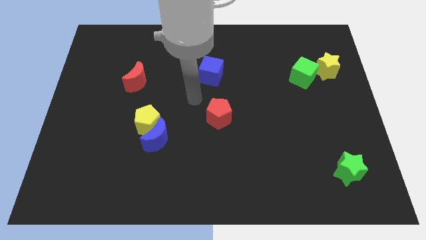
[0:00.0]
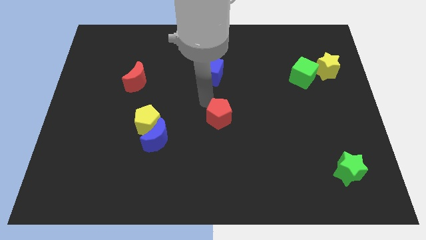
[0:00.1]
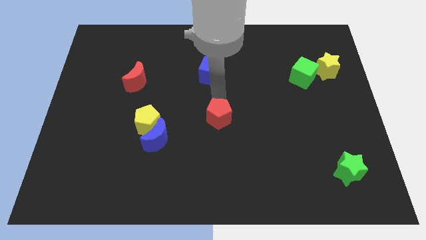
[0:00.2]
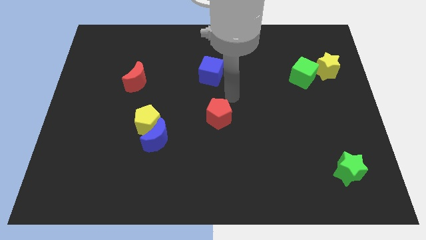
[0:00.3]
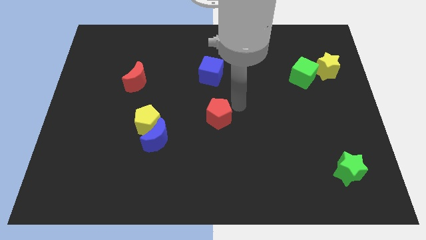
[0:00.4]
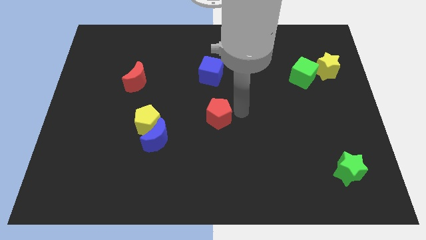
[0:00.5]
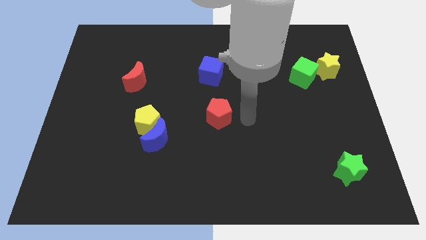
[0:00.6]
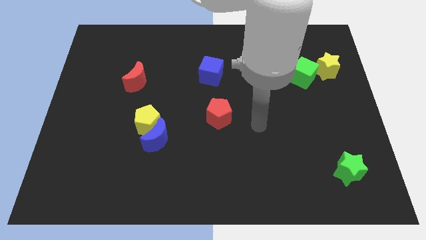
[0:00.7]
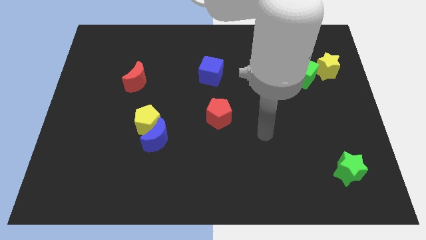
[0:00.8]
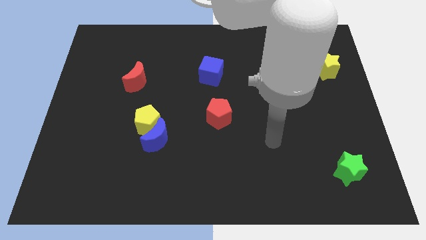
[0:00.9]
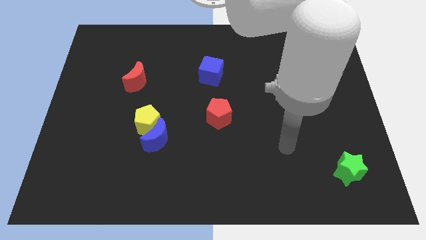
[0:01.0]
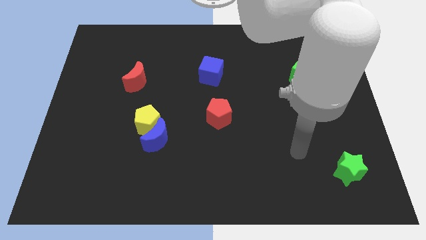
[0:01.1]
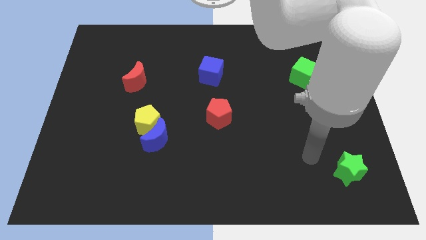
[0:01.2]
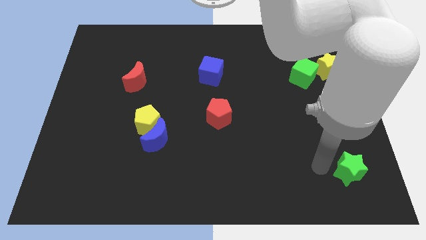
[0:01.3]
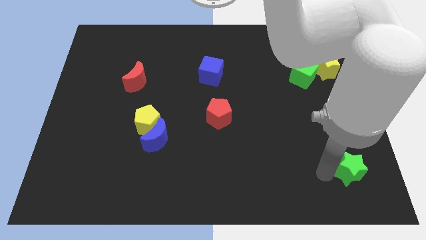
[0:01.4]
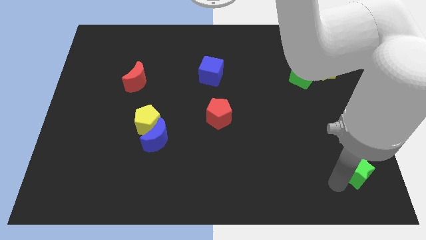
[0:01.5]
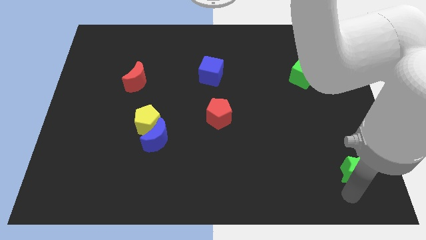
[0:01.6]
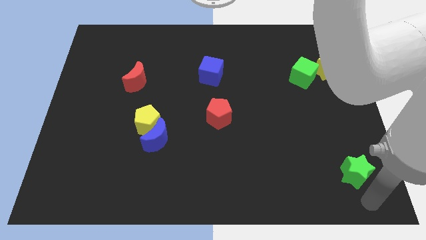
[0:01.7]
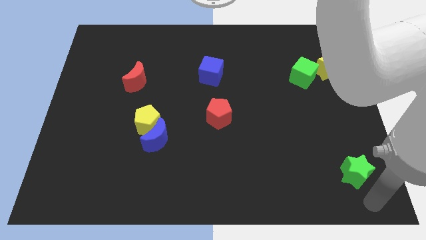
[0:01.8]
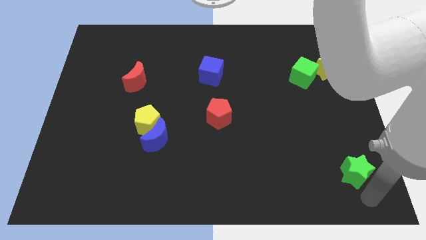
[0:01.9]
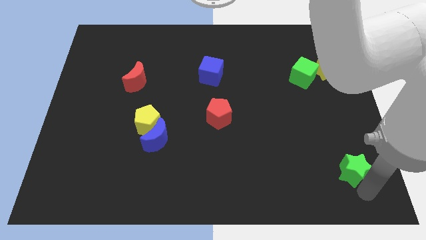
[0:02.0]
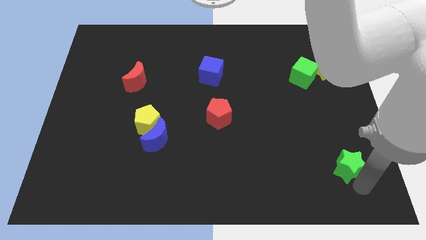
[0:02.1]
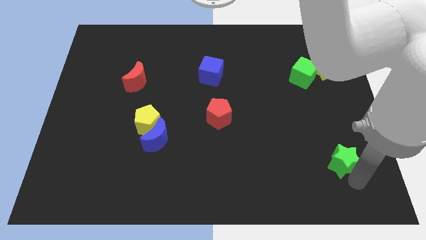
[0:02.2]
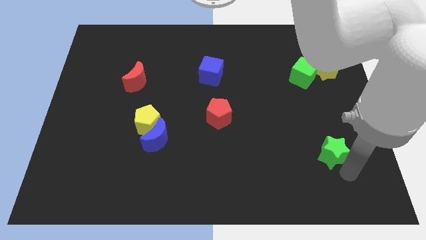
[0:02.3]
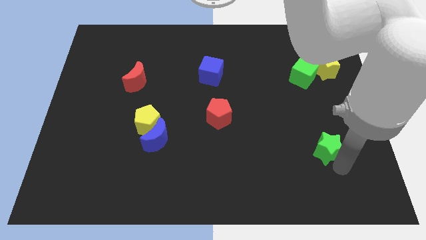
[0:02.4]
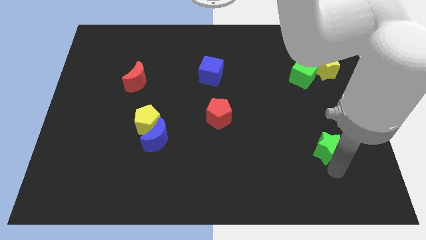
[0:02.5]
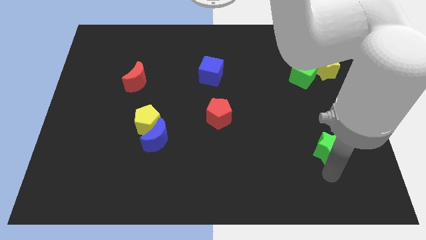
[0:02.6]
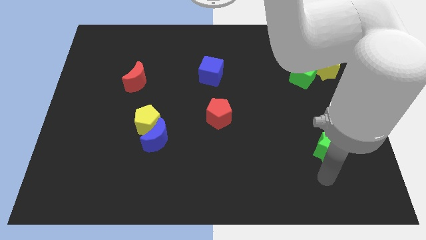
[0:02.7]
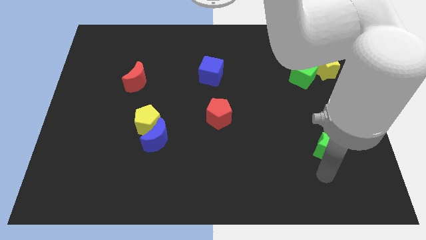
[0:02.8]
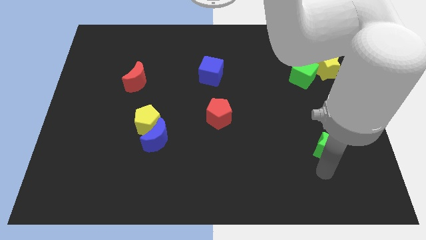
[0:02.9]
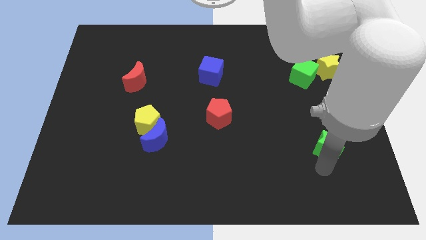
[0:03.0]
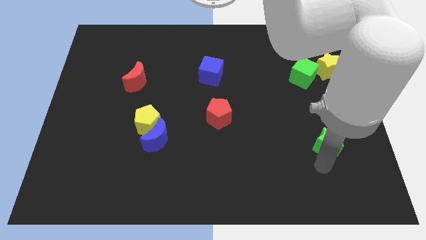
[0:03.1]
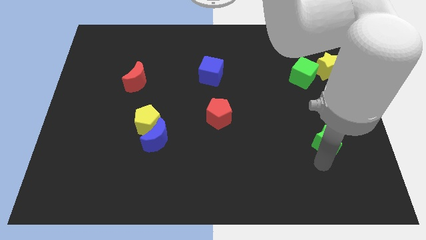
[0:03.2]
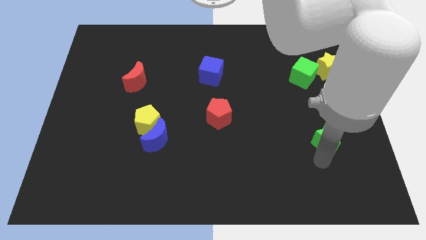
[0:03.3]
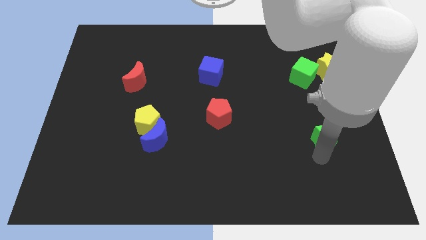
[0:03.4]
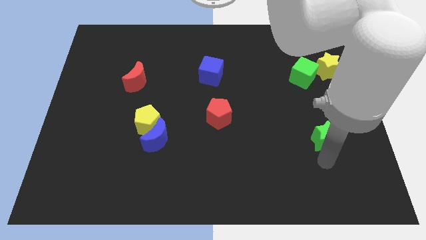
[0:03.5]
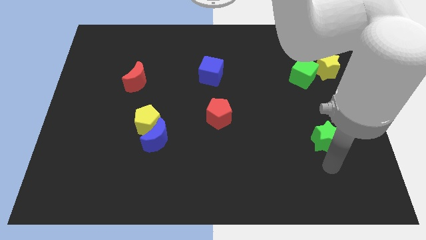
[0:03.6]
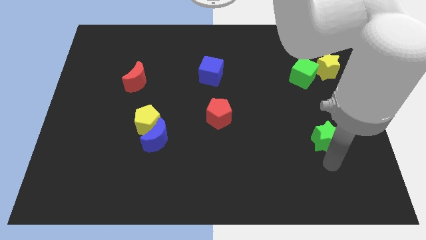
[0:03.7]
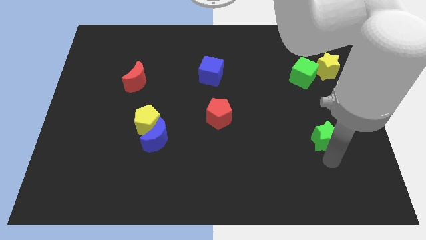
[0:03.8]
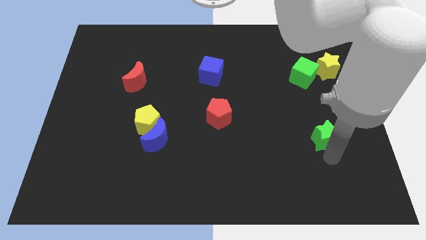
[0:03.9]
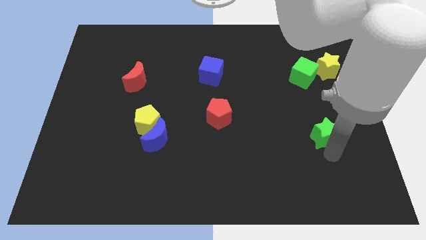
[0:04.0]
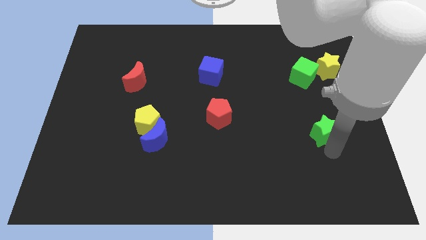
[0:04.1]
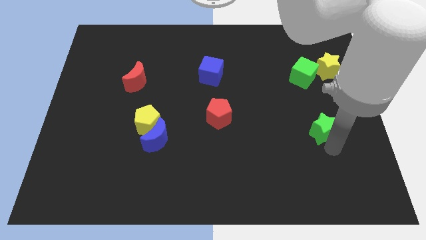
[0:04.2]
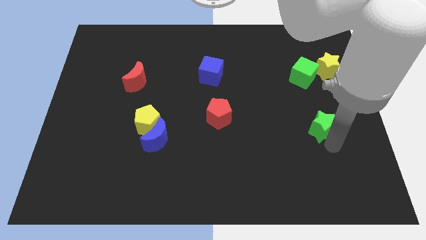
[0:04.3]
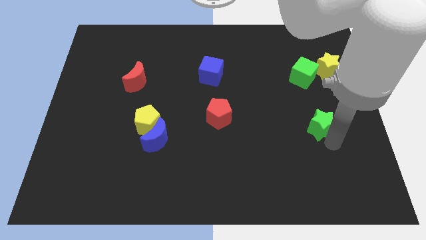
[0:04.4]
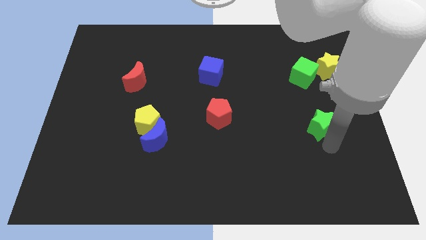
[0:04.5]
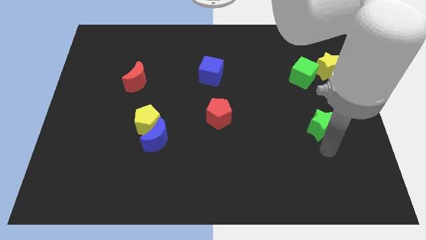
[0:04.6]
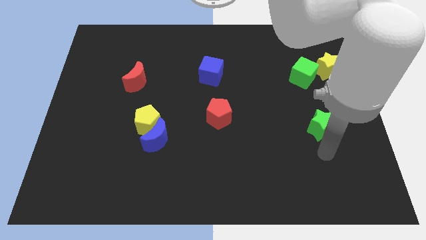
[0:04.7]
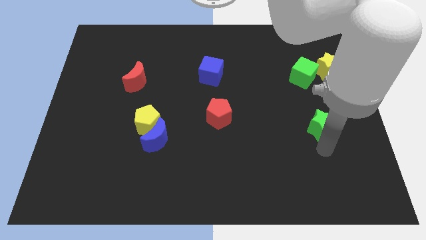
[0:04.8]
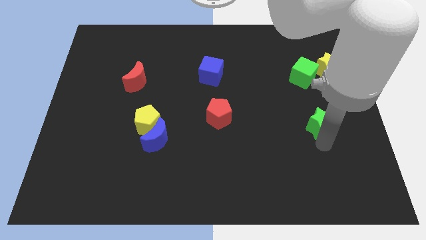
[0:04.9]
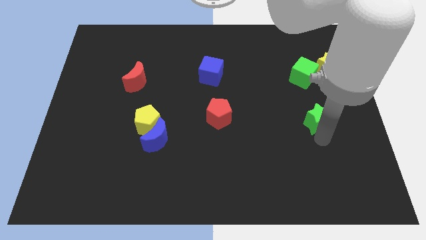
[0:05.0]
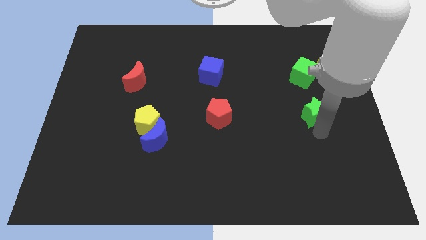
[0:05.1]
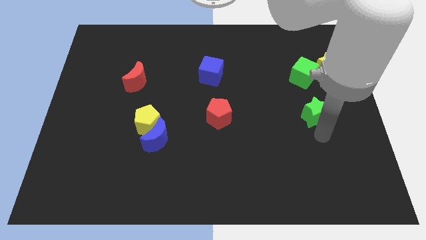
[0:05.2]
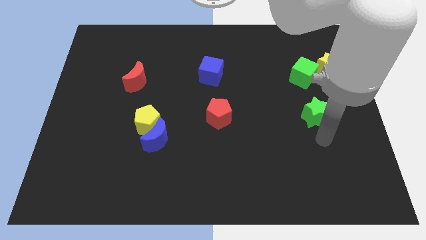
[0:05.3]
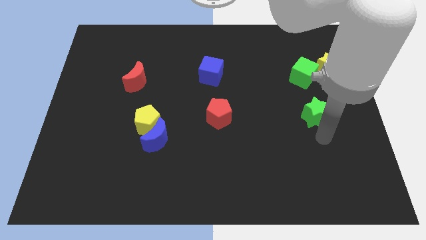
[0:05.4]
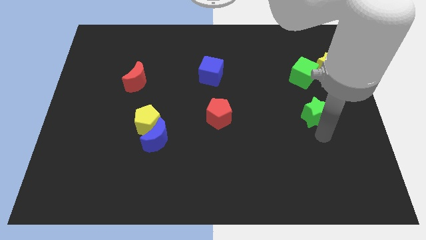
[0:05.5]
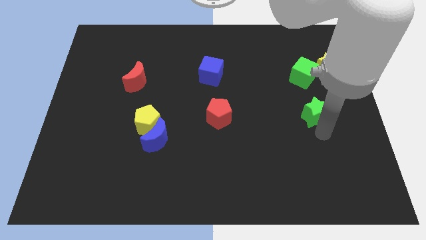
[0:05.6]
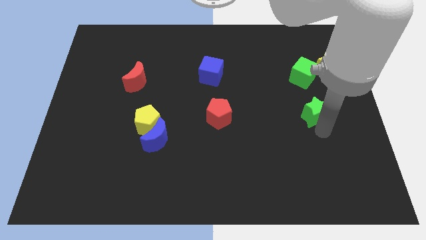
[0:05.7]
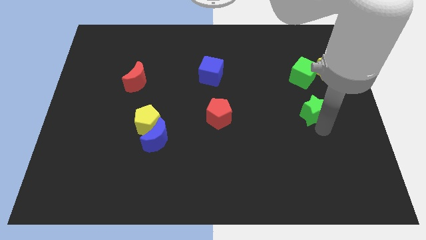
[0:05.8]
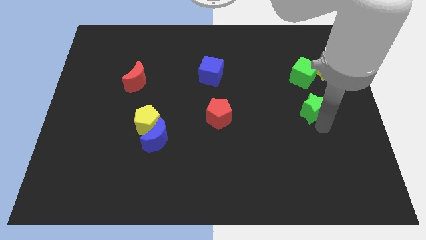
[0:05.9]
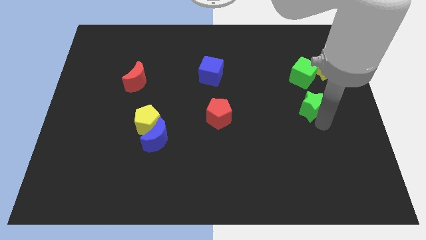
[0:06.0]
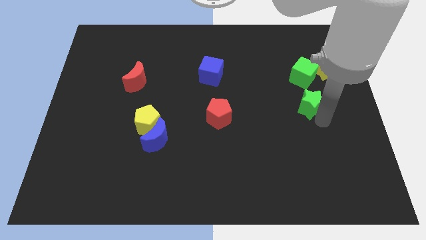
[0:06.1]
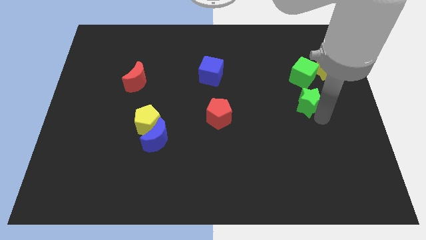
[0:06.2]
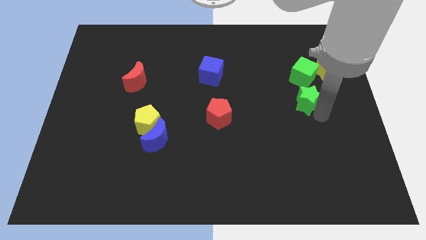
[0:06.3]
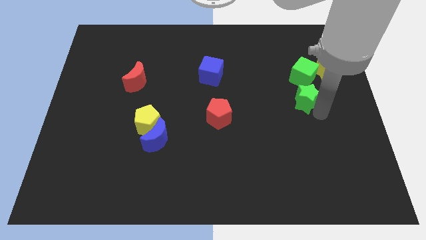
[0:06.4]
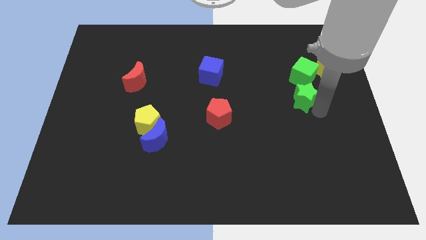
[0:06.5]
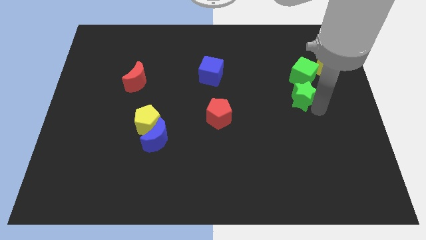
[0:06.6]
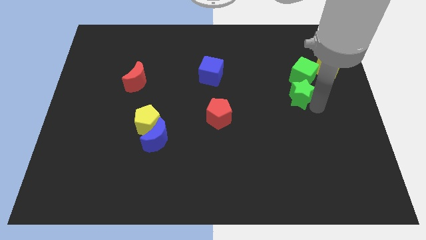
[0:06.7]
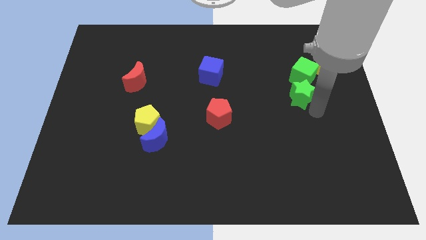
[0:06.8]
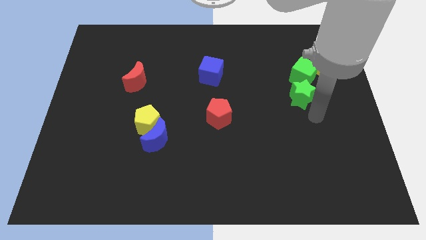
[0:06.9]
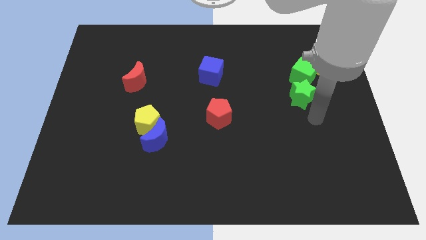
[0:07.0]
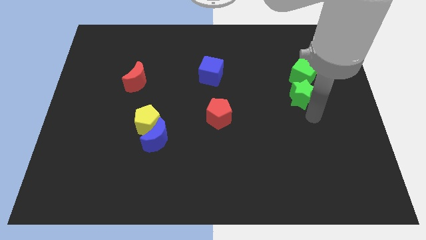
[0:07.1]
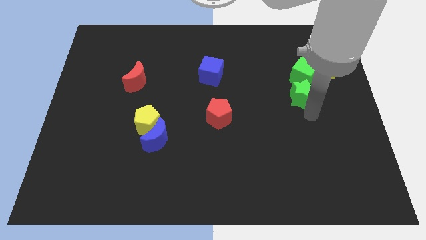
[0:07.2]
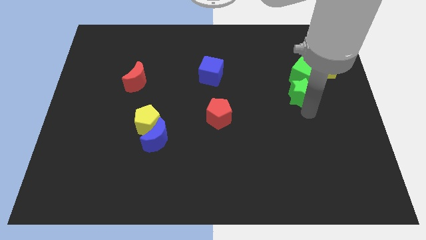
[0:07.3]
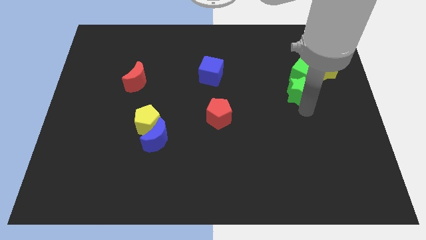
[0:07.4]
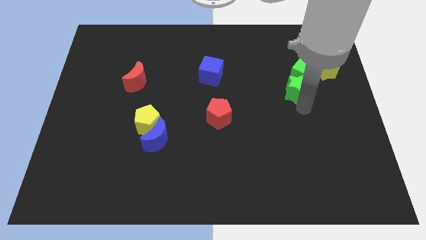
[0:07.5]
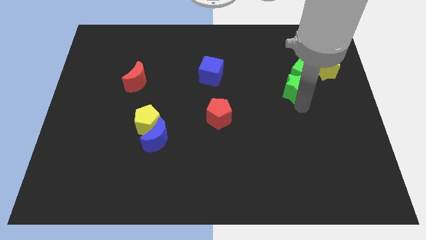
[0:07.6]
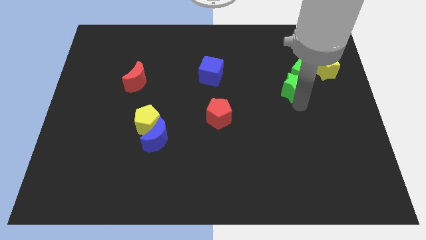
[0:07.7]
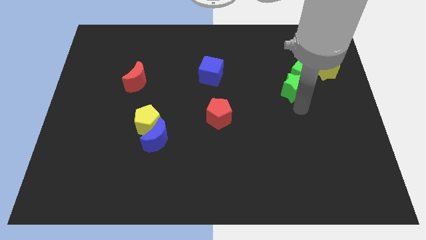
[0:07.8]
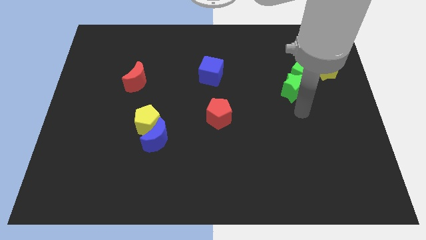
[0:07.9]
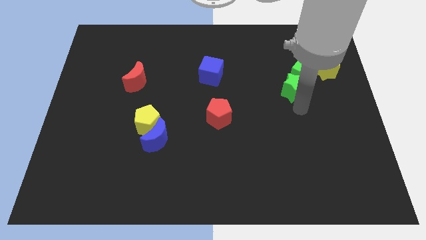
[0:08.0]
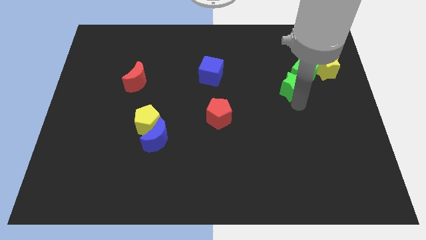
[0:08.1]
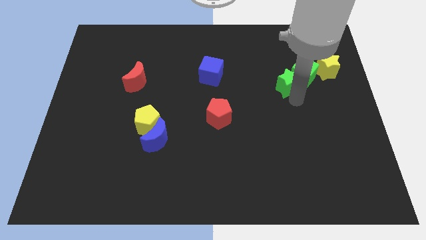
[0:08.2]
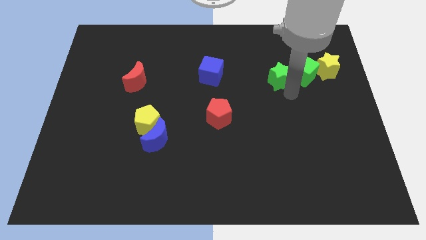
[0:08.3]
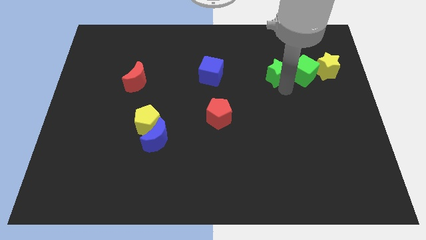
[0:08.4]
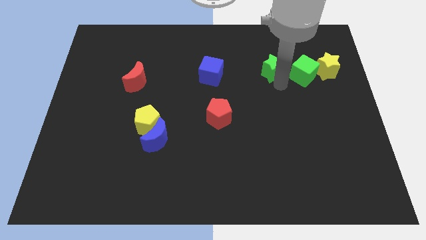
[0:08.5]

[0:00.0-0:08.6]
put the green star diagonally up and to the left of the green cube
